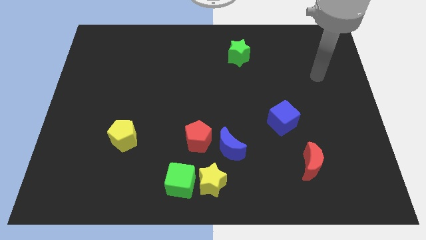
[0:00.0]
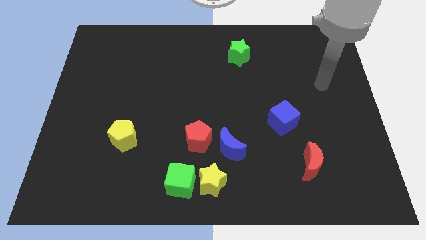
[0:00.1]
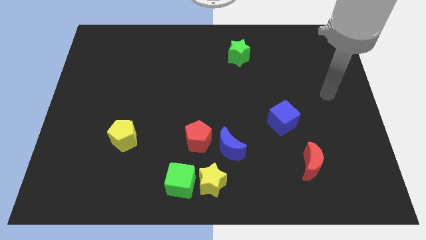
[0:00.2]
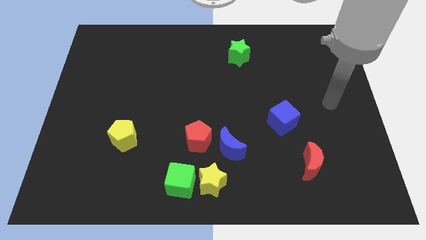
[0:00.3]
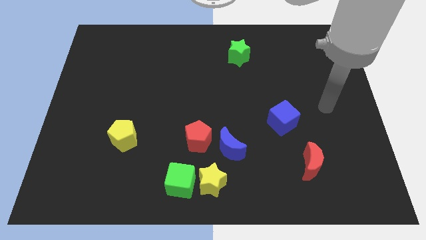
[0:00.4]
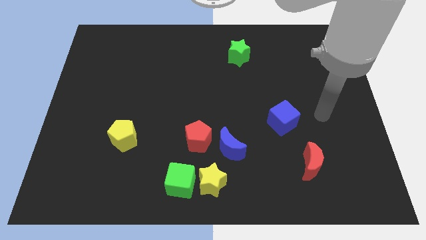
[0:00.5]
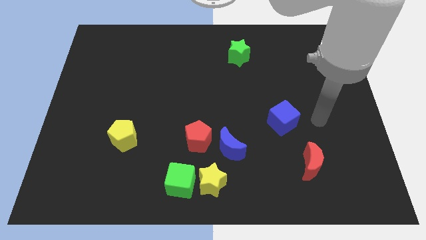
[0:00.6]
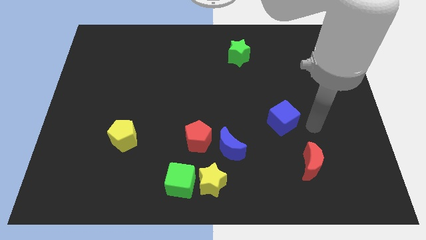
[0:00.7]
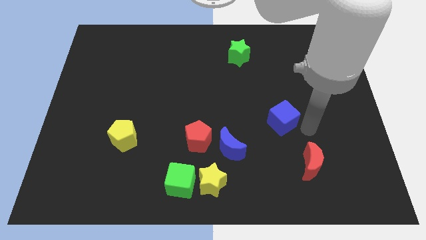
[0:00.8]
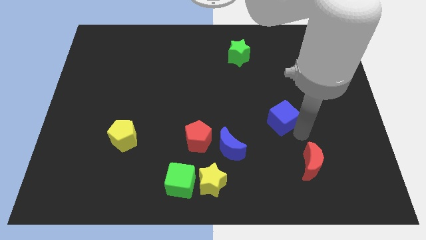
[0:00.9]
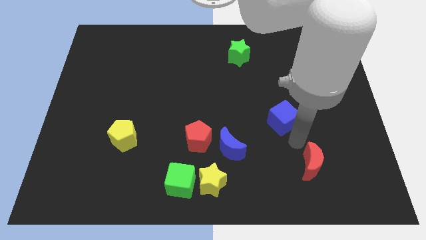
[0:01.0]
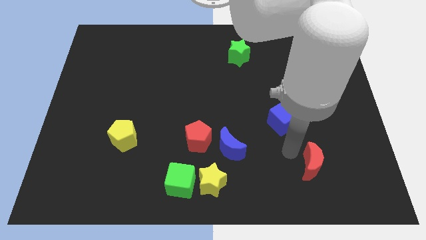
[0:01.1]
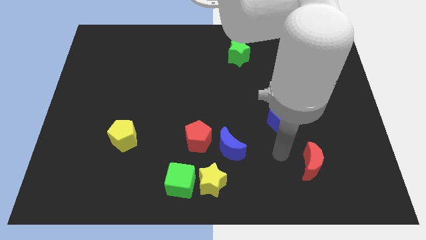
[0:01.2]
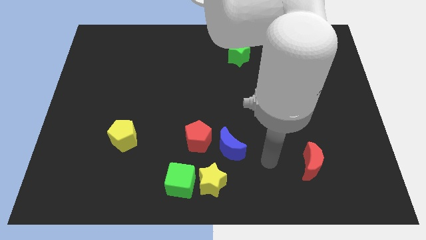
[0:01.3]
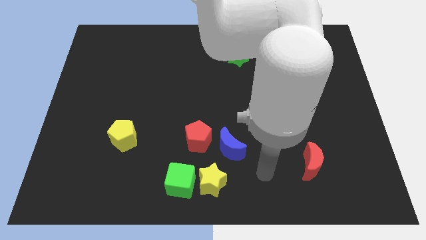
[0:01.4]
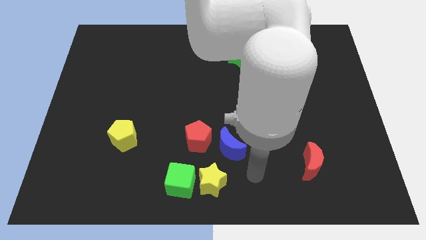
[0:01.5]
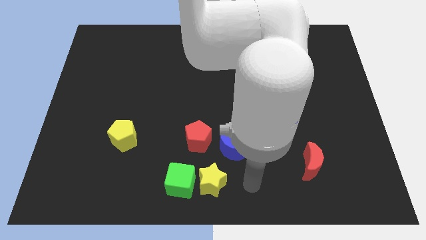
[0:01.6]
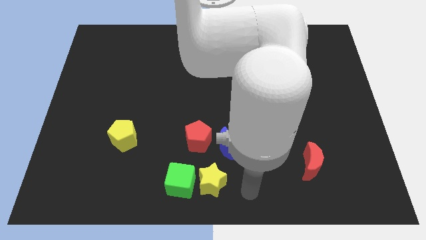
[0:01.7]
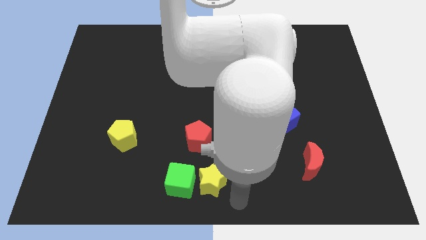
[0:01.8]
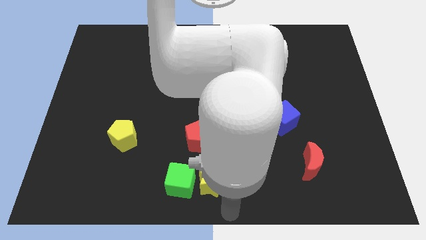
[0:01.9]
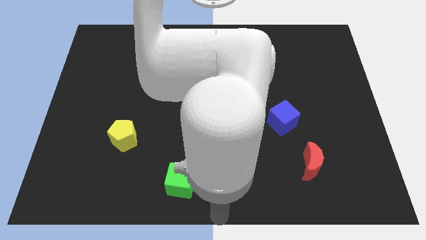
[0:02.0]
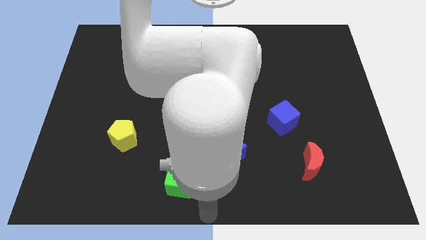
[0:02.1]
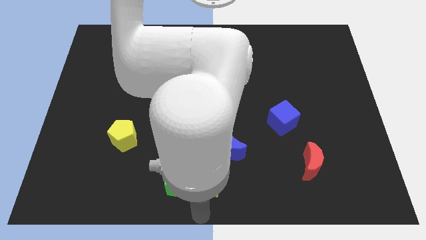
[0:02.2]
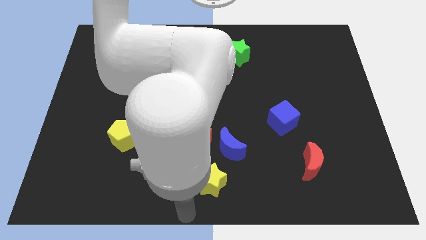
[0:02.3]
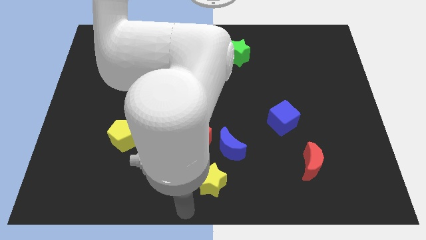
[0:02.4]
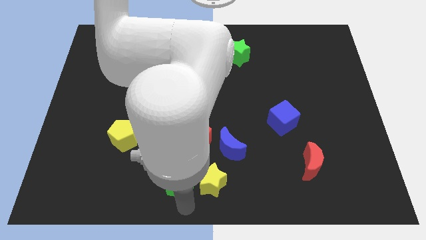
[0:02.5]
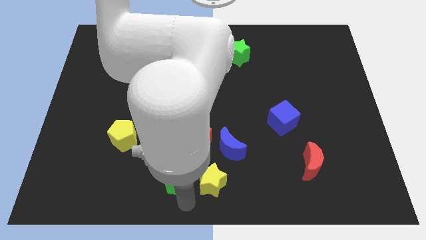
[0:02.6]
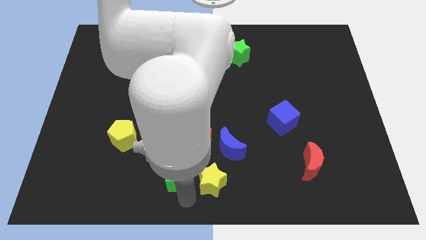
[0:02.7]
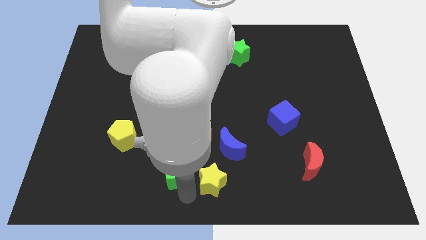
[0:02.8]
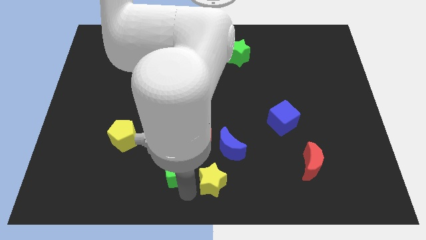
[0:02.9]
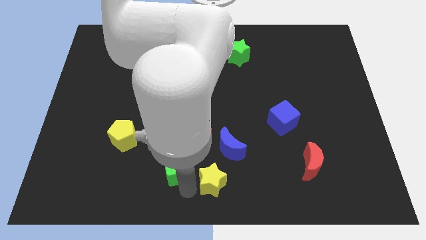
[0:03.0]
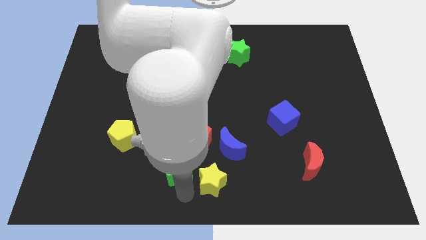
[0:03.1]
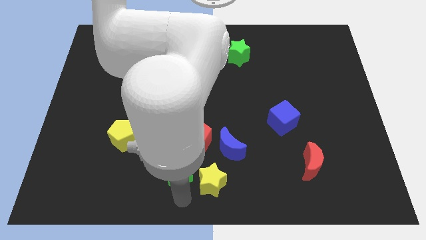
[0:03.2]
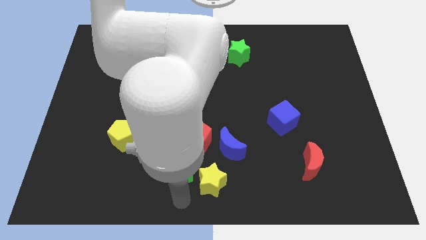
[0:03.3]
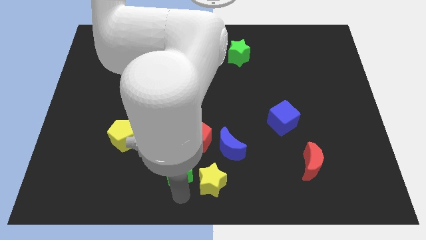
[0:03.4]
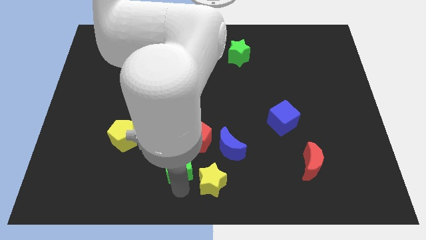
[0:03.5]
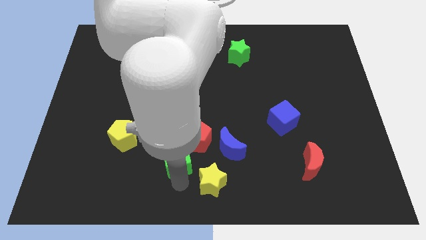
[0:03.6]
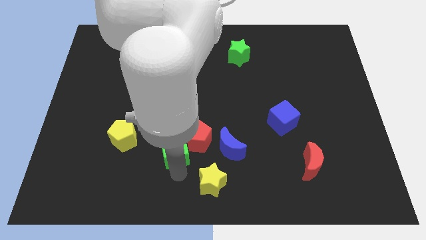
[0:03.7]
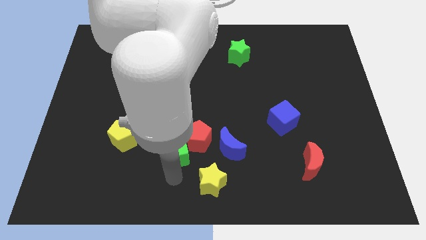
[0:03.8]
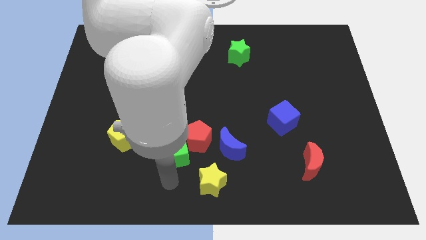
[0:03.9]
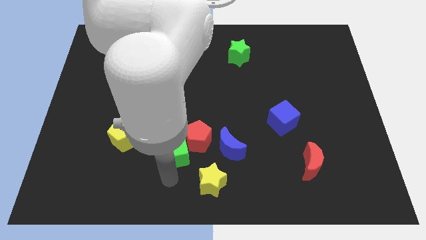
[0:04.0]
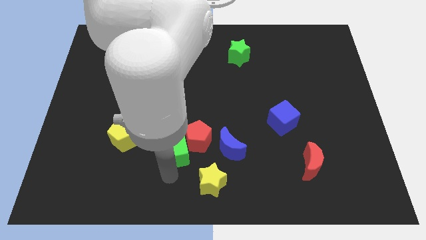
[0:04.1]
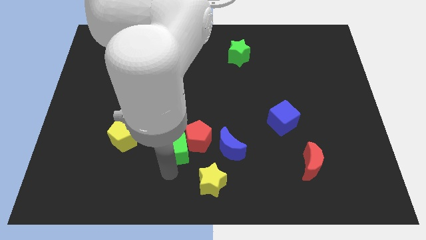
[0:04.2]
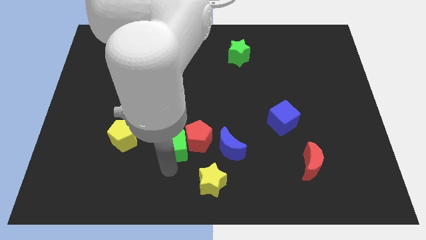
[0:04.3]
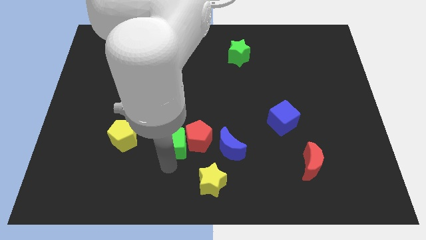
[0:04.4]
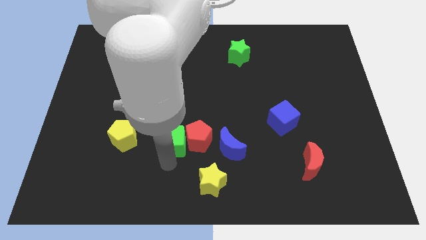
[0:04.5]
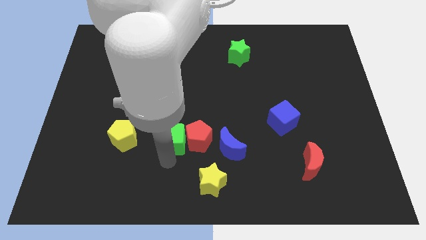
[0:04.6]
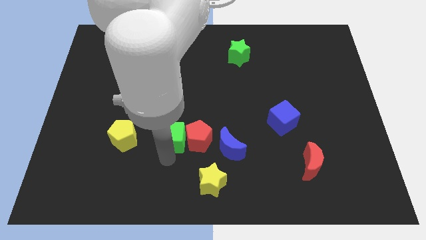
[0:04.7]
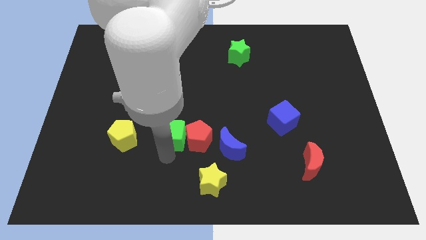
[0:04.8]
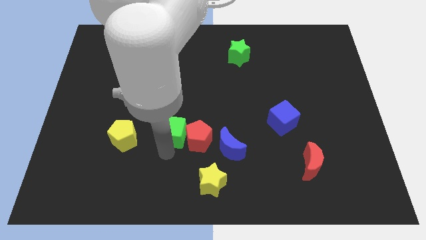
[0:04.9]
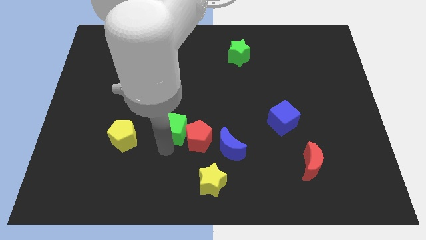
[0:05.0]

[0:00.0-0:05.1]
push the green cube to the center of the board

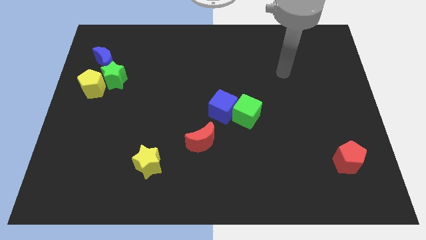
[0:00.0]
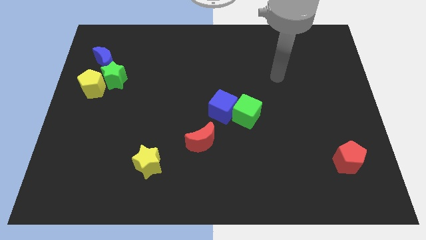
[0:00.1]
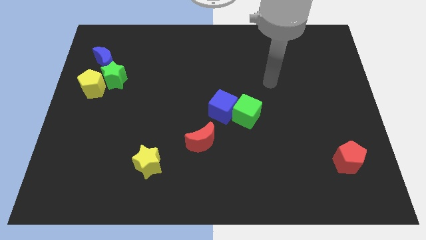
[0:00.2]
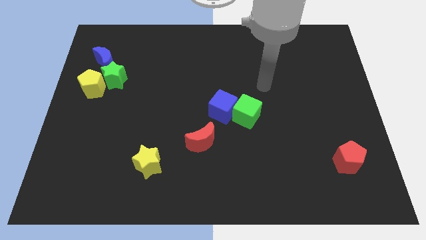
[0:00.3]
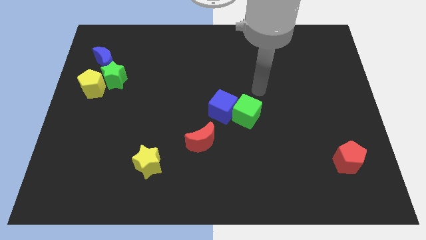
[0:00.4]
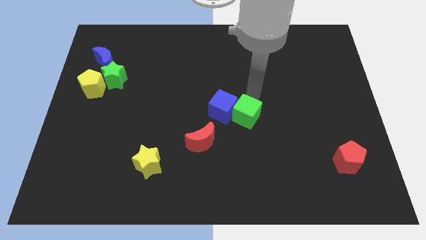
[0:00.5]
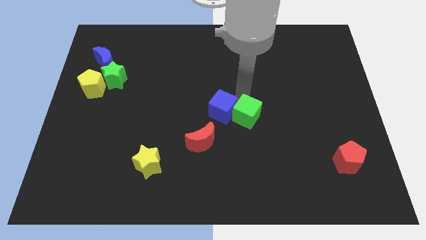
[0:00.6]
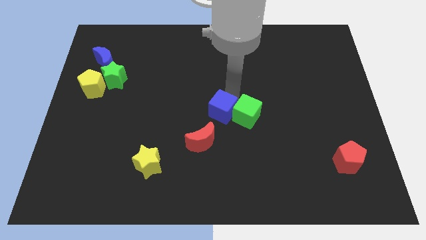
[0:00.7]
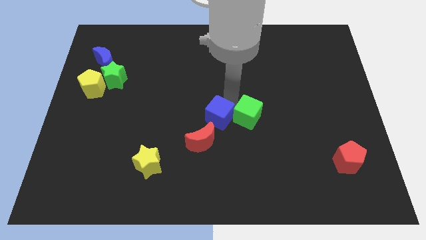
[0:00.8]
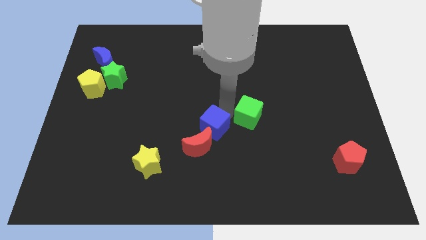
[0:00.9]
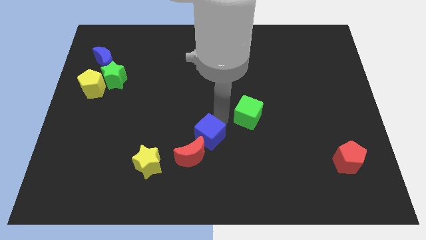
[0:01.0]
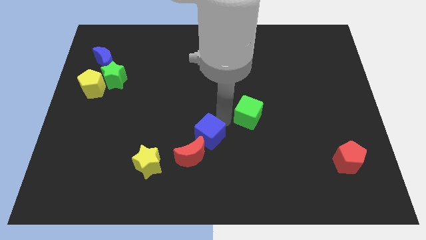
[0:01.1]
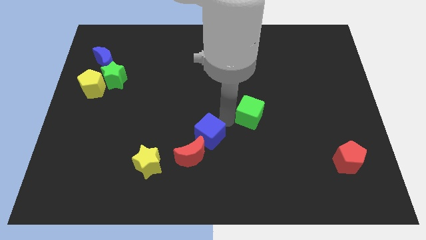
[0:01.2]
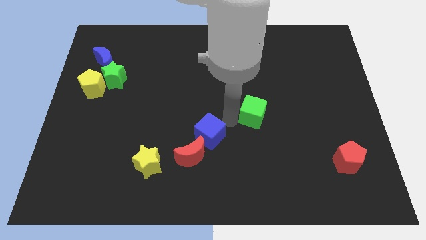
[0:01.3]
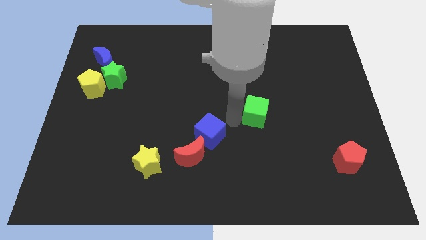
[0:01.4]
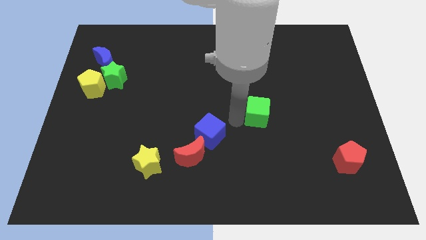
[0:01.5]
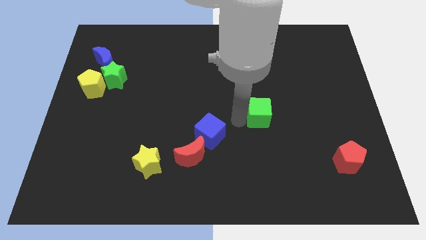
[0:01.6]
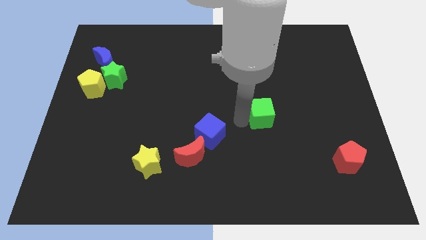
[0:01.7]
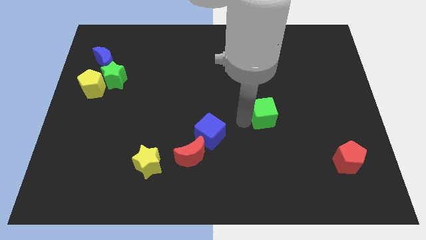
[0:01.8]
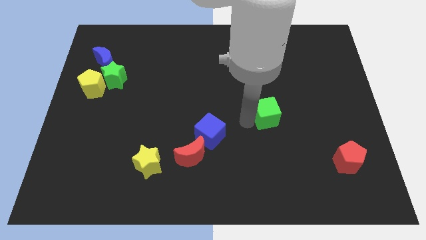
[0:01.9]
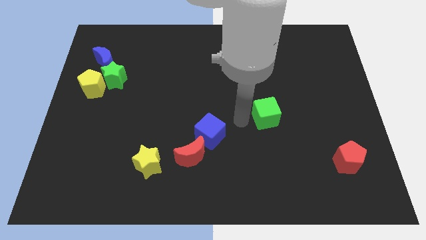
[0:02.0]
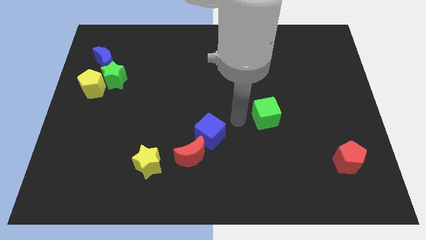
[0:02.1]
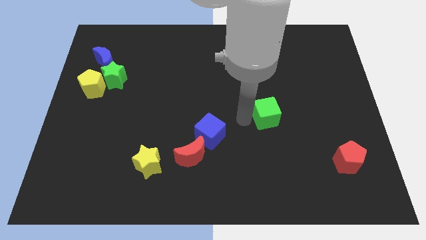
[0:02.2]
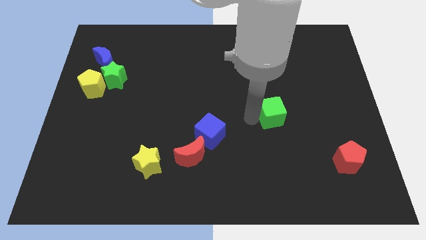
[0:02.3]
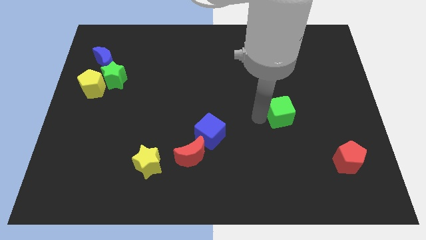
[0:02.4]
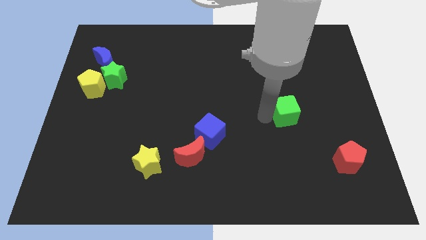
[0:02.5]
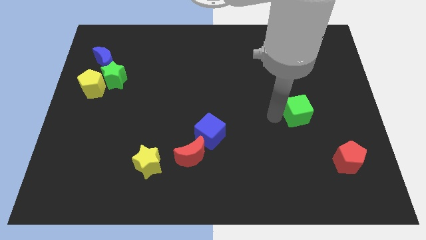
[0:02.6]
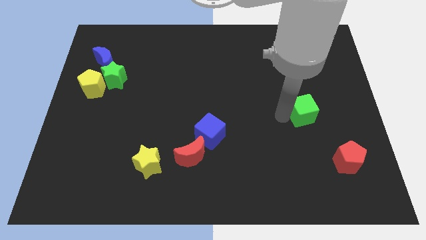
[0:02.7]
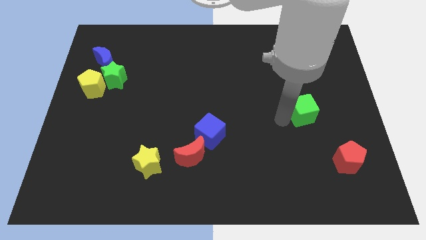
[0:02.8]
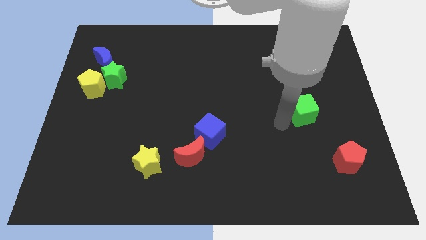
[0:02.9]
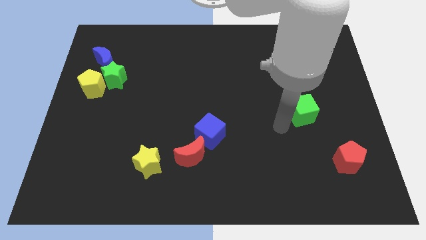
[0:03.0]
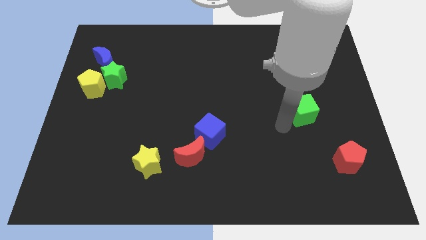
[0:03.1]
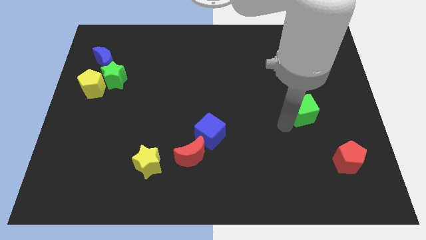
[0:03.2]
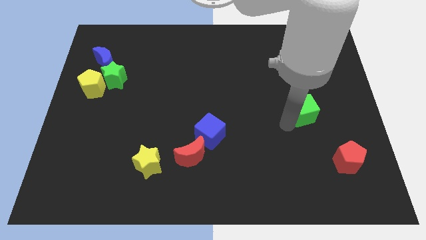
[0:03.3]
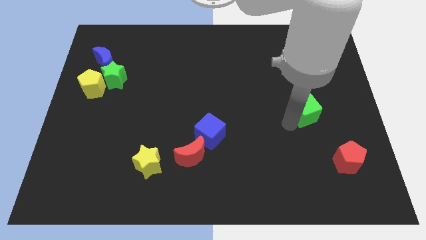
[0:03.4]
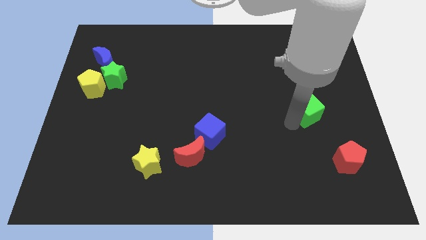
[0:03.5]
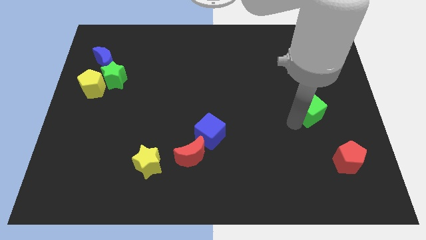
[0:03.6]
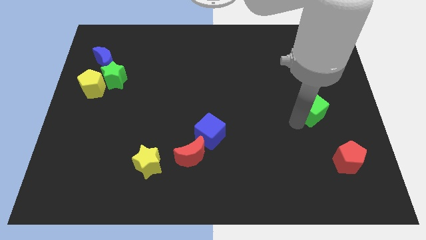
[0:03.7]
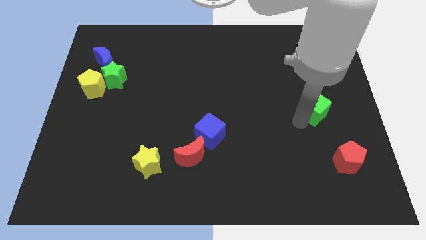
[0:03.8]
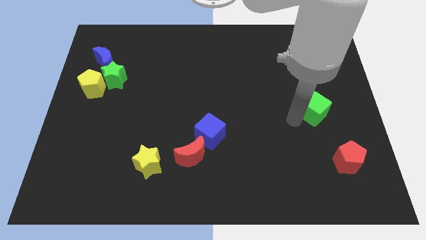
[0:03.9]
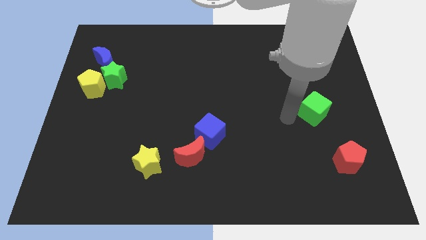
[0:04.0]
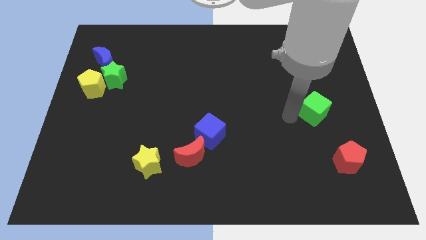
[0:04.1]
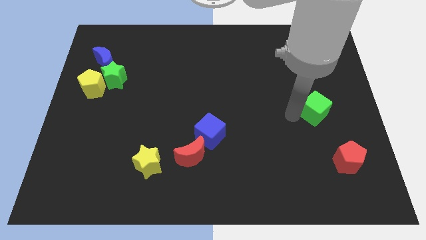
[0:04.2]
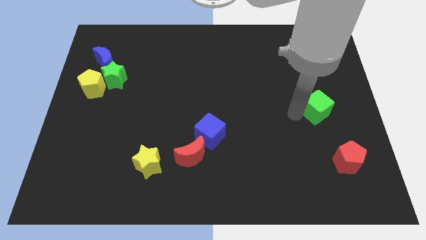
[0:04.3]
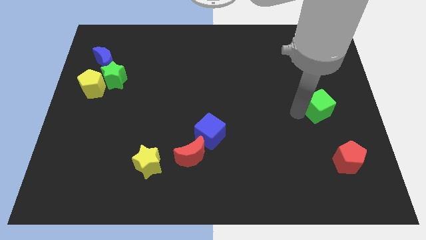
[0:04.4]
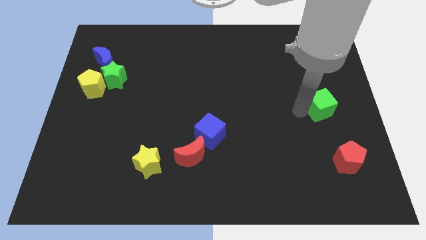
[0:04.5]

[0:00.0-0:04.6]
move the green cube to the center right
